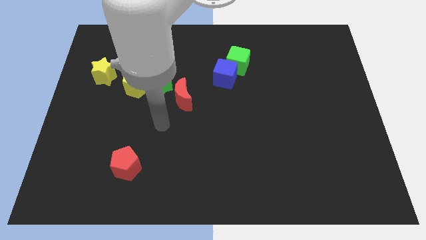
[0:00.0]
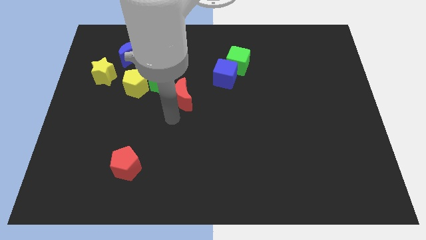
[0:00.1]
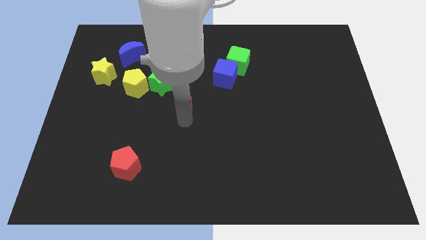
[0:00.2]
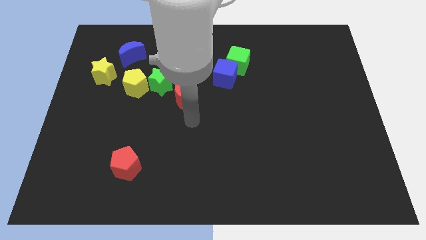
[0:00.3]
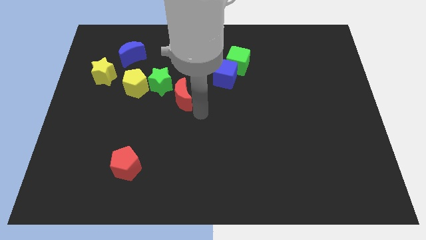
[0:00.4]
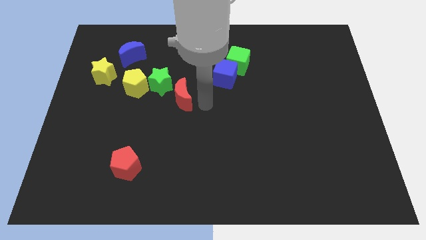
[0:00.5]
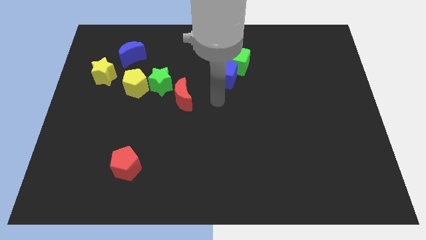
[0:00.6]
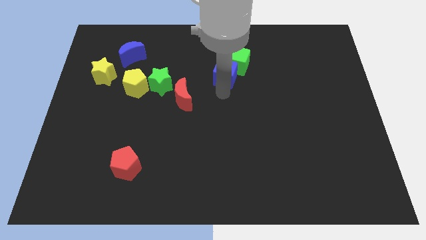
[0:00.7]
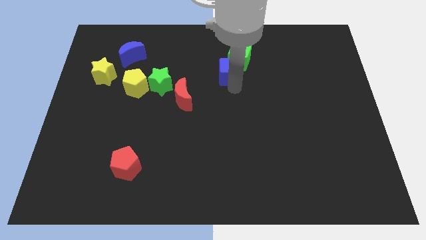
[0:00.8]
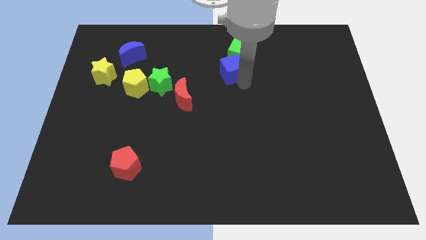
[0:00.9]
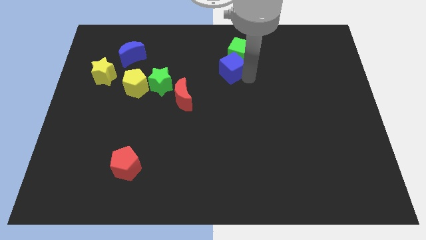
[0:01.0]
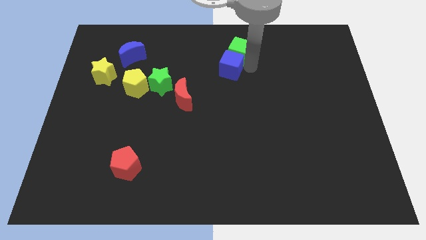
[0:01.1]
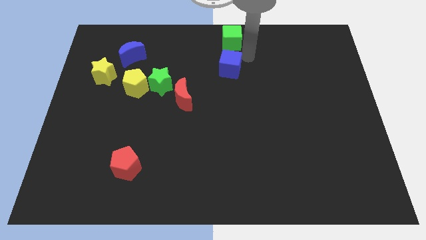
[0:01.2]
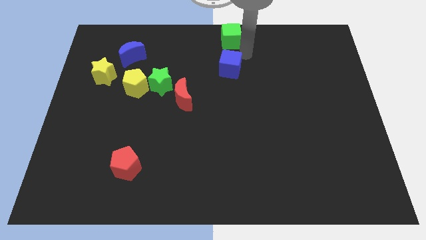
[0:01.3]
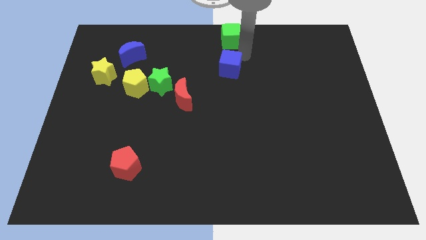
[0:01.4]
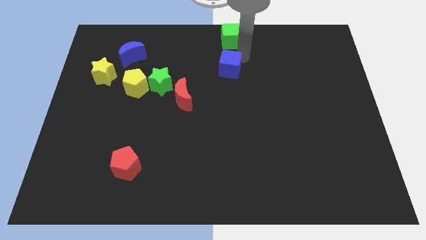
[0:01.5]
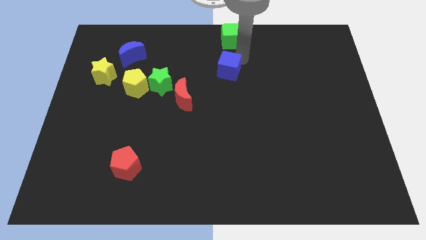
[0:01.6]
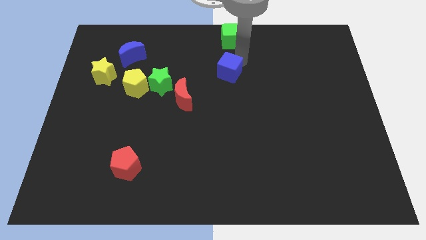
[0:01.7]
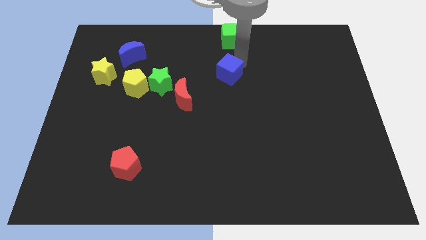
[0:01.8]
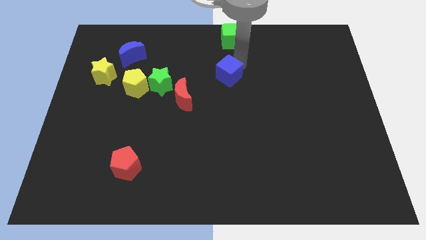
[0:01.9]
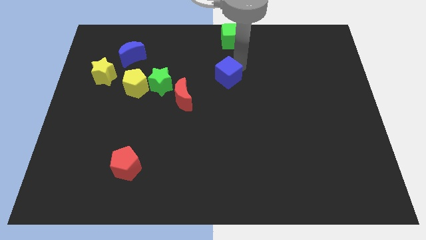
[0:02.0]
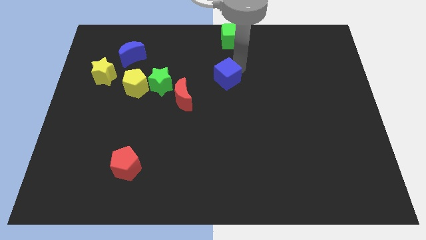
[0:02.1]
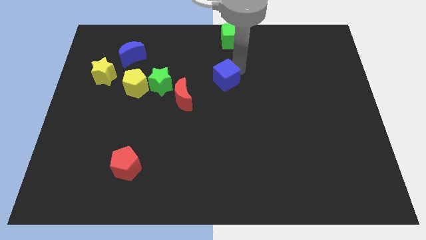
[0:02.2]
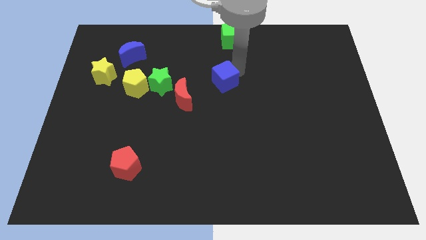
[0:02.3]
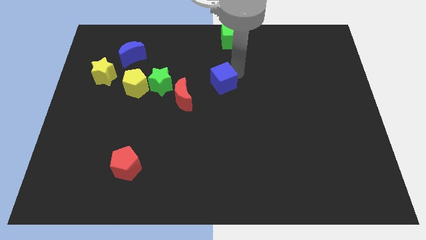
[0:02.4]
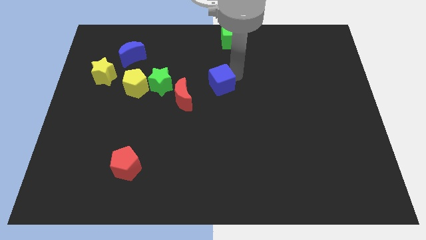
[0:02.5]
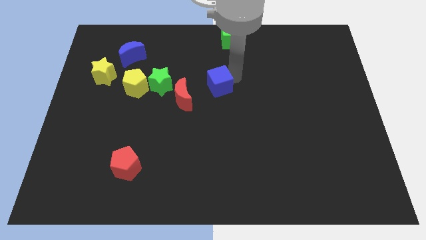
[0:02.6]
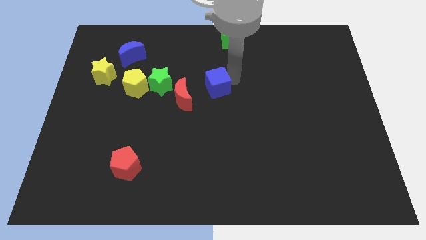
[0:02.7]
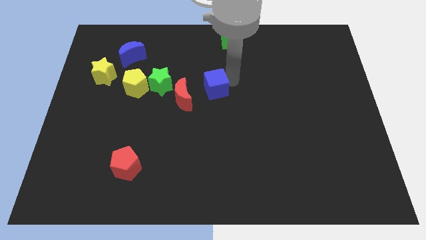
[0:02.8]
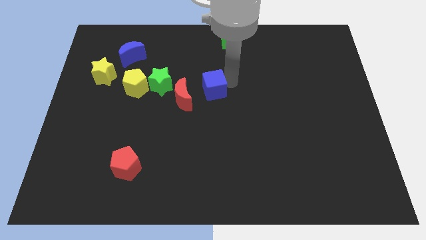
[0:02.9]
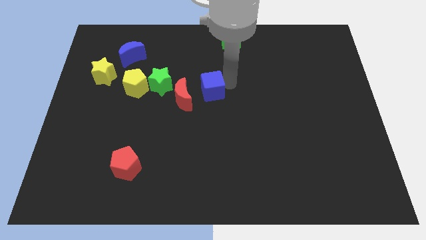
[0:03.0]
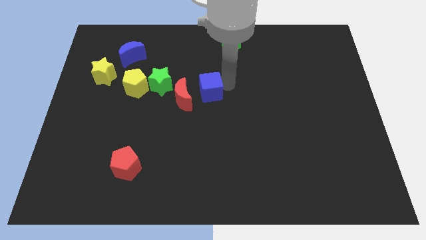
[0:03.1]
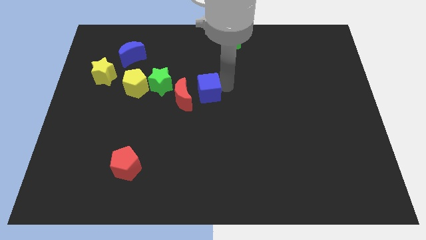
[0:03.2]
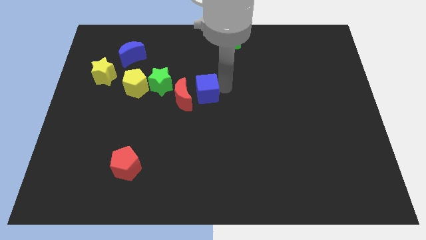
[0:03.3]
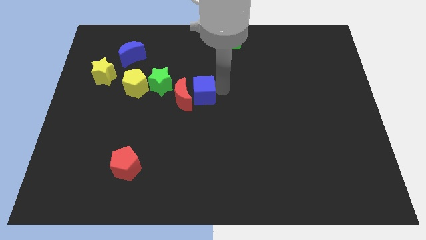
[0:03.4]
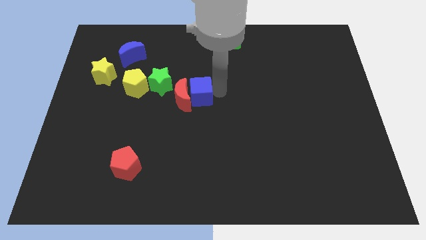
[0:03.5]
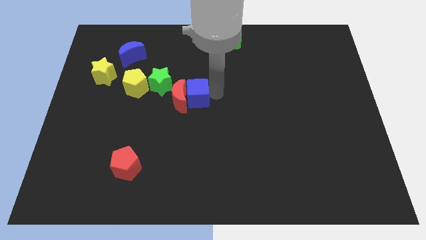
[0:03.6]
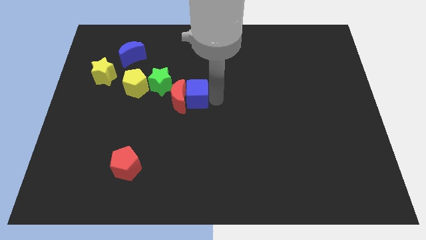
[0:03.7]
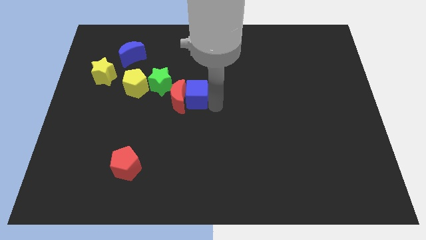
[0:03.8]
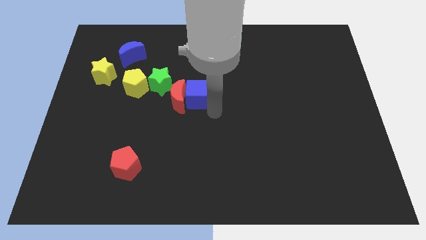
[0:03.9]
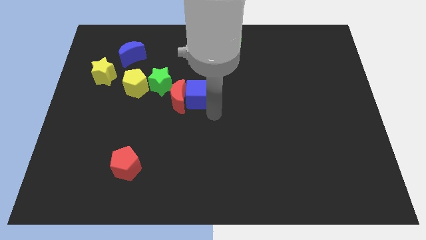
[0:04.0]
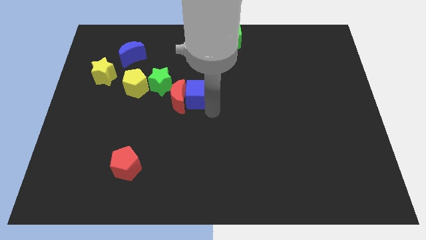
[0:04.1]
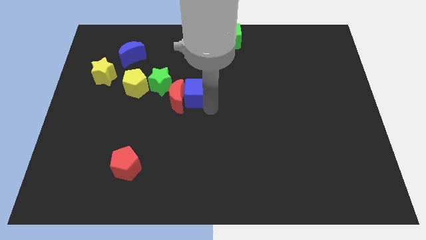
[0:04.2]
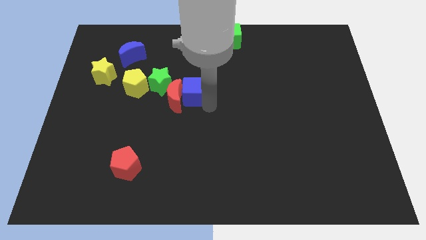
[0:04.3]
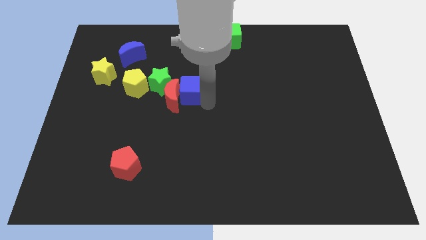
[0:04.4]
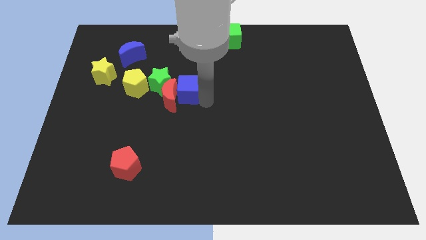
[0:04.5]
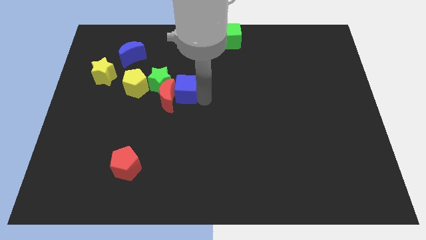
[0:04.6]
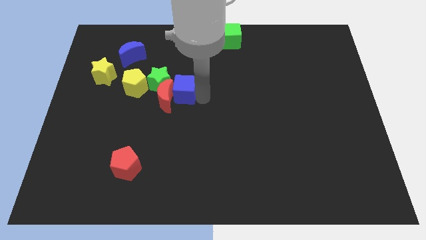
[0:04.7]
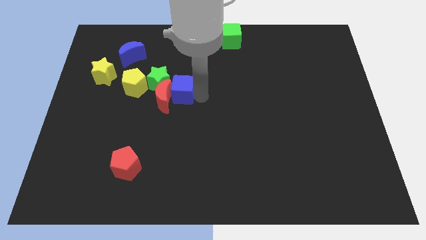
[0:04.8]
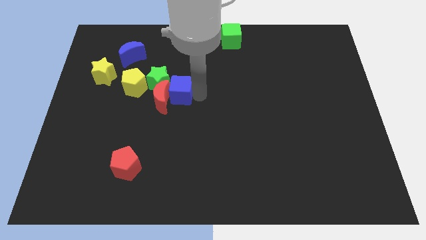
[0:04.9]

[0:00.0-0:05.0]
put the blue cube next to the green star

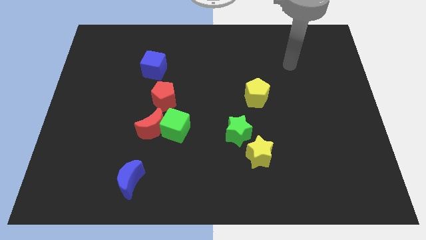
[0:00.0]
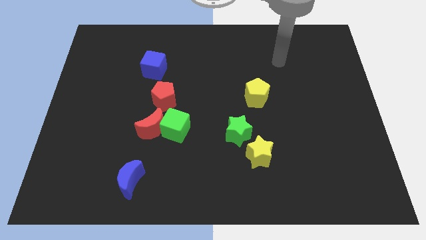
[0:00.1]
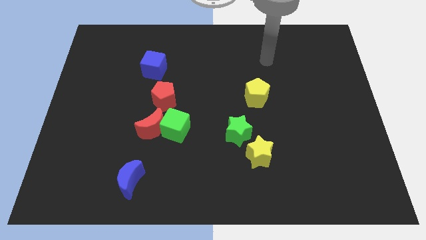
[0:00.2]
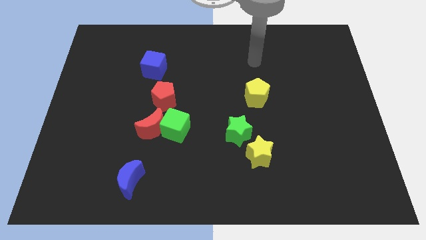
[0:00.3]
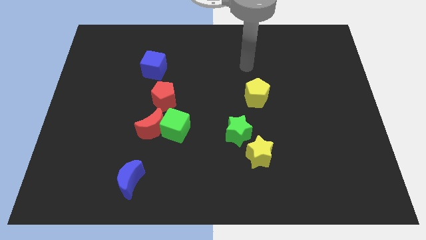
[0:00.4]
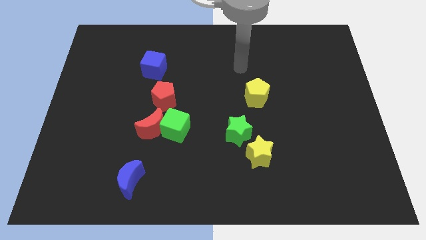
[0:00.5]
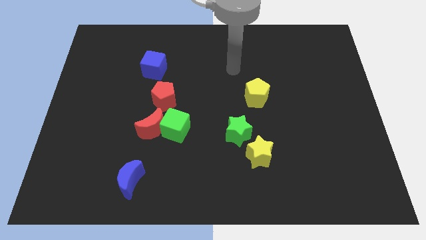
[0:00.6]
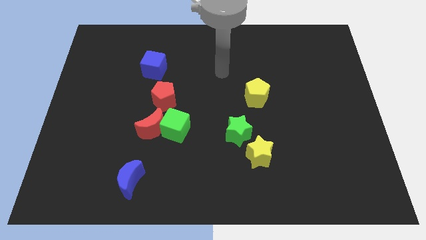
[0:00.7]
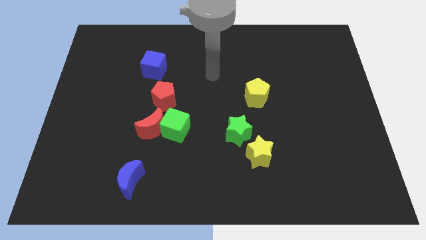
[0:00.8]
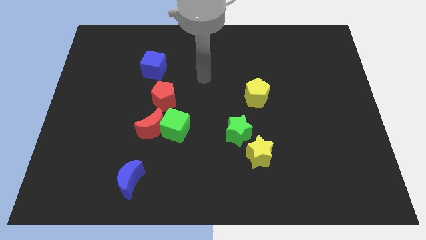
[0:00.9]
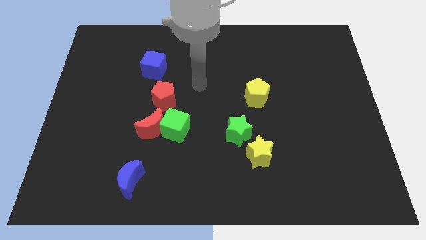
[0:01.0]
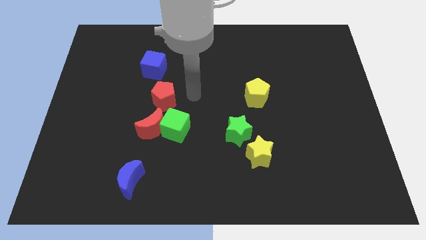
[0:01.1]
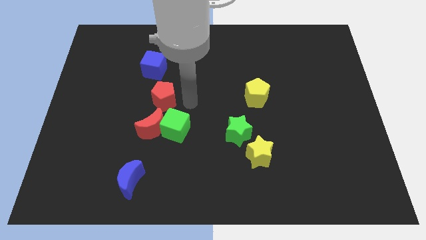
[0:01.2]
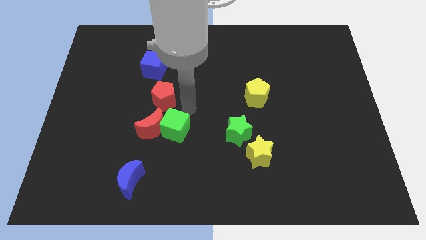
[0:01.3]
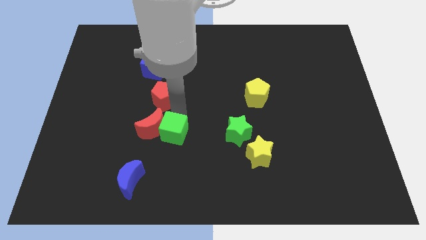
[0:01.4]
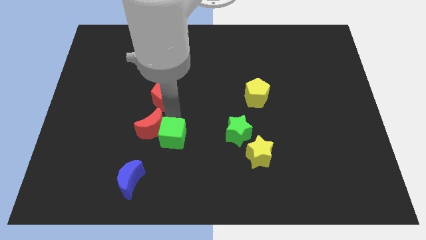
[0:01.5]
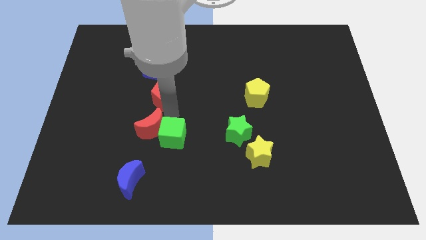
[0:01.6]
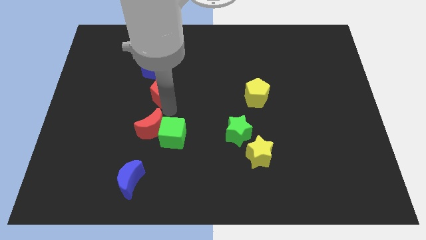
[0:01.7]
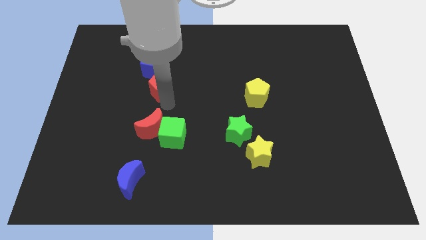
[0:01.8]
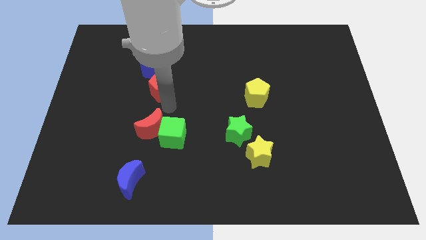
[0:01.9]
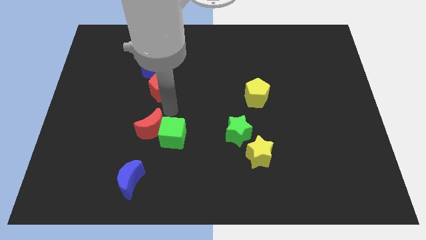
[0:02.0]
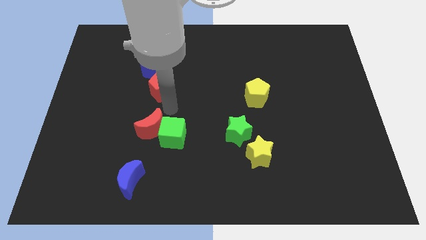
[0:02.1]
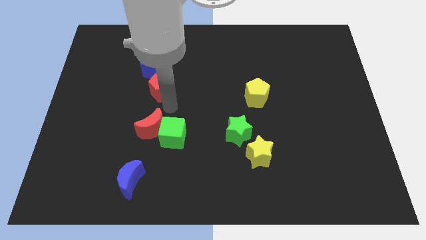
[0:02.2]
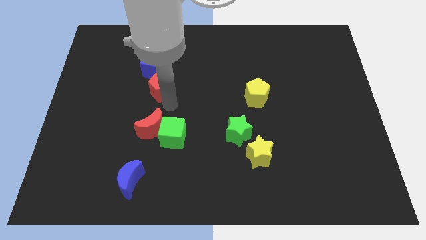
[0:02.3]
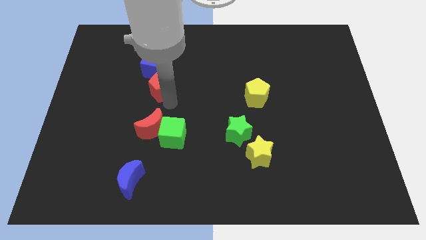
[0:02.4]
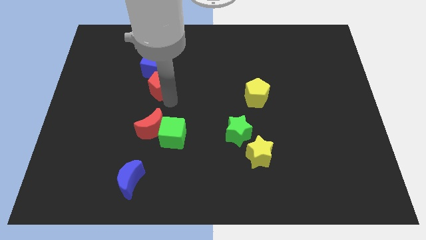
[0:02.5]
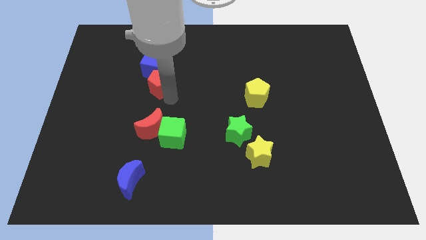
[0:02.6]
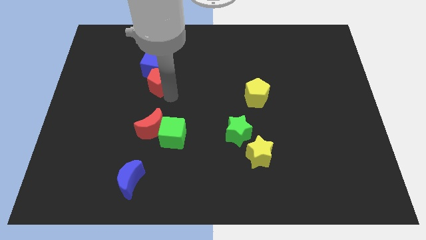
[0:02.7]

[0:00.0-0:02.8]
put the red pentagon next to the blue cube

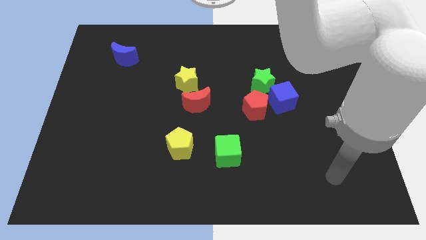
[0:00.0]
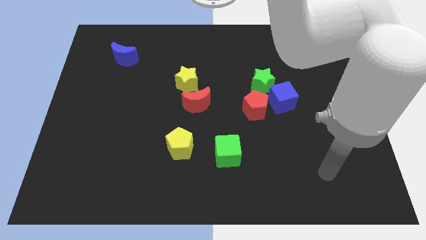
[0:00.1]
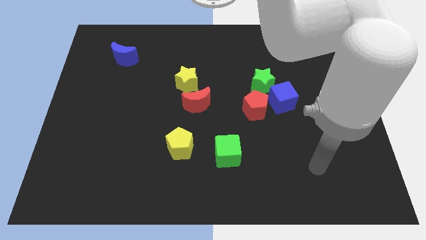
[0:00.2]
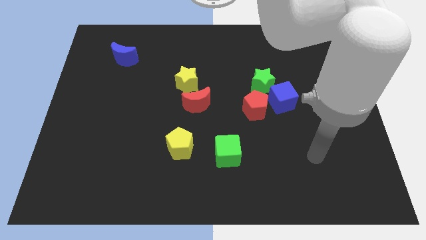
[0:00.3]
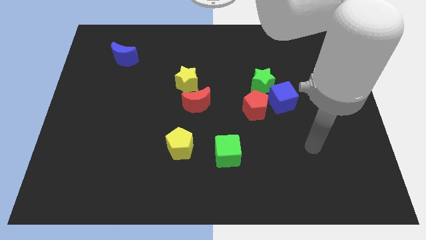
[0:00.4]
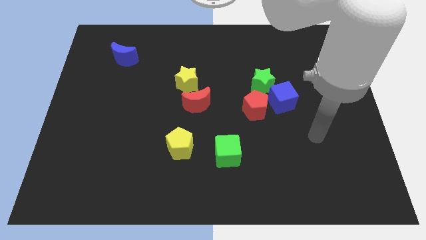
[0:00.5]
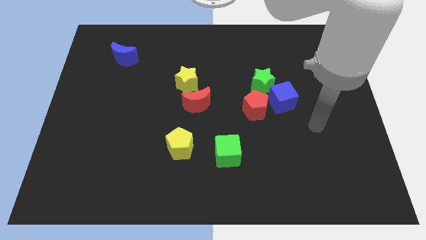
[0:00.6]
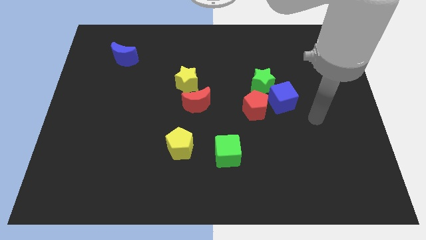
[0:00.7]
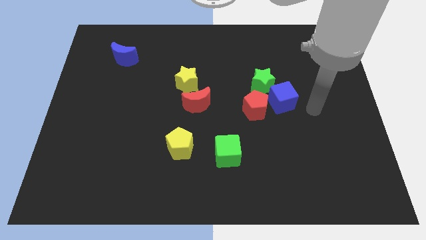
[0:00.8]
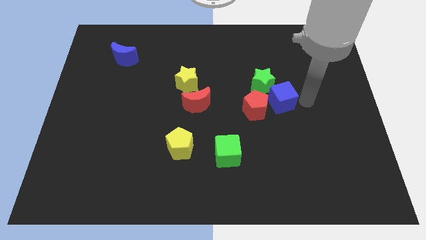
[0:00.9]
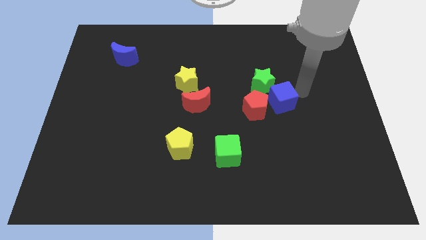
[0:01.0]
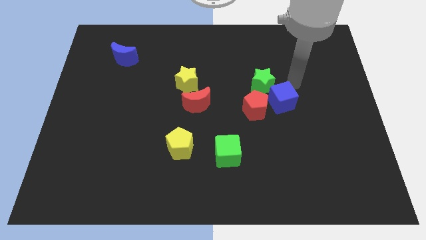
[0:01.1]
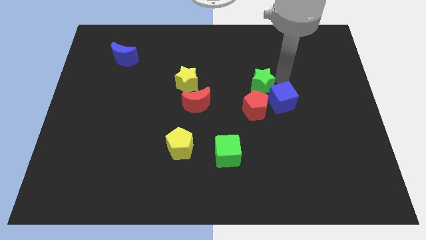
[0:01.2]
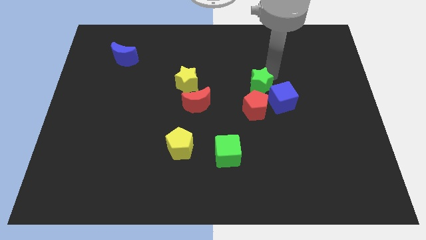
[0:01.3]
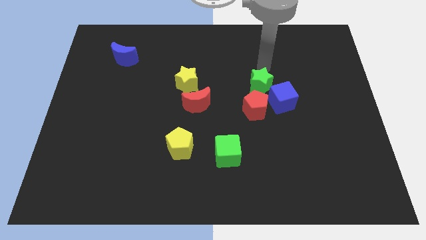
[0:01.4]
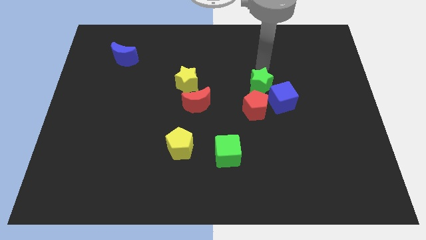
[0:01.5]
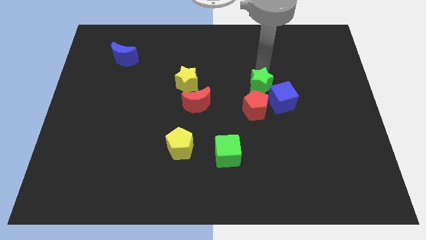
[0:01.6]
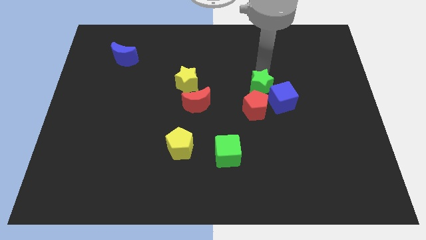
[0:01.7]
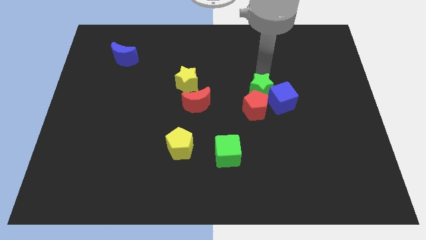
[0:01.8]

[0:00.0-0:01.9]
slide the green star towards the red pentagon
